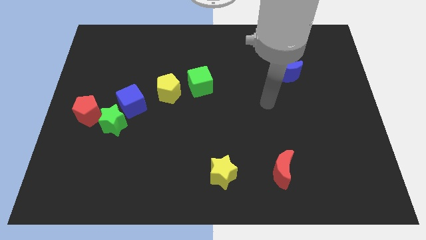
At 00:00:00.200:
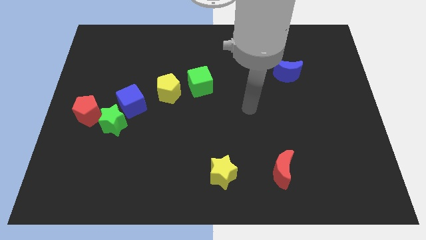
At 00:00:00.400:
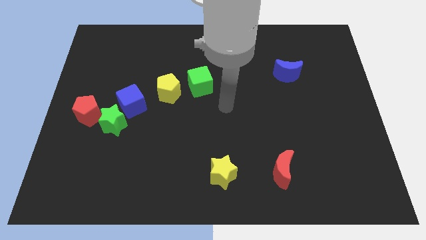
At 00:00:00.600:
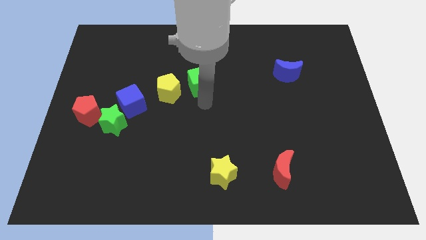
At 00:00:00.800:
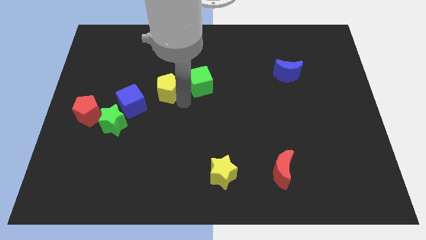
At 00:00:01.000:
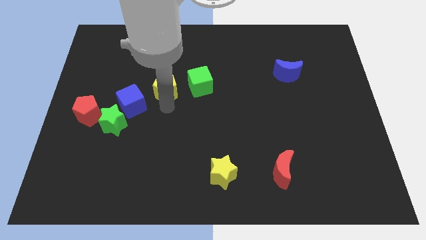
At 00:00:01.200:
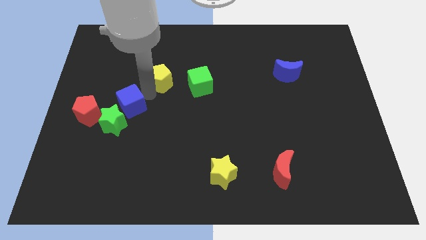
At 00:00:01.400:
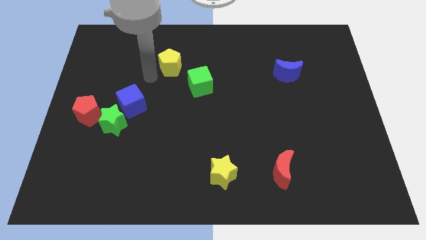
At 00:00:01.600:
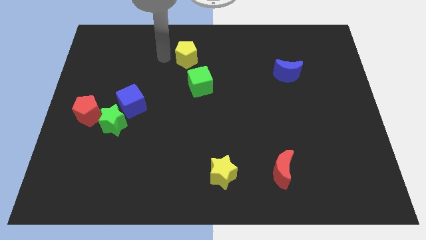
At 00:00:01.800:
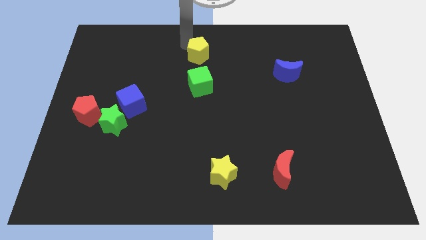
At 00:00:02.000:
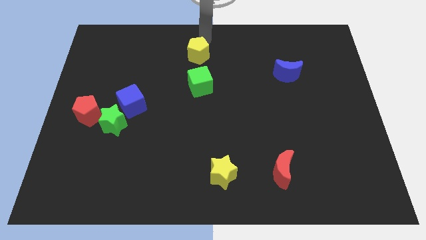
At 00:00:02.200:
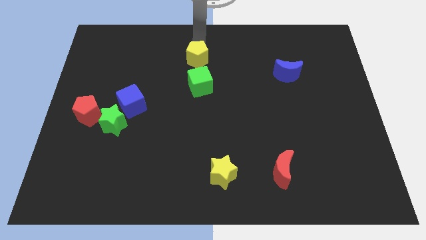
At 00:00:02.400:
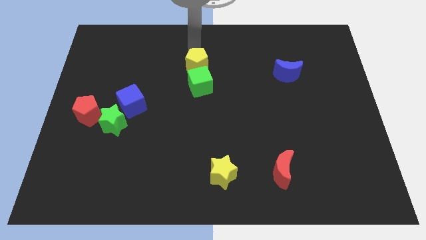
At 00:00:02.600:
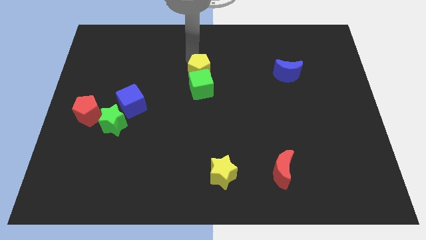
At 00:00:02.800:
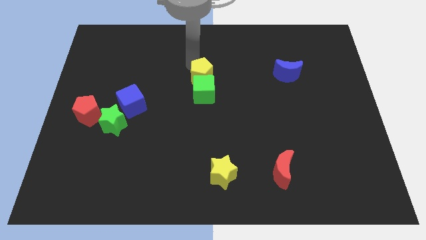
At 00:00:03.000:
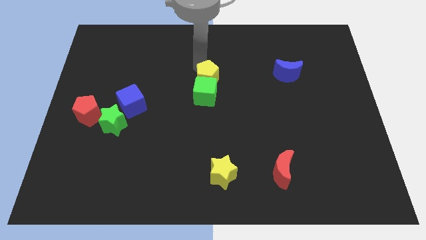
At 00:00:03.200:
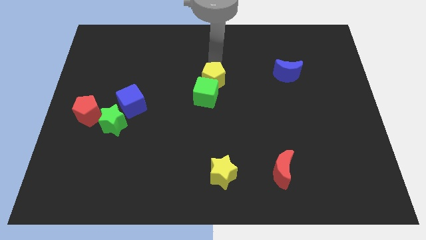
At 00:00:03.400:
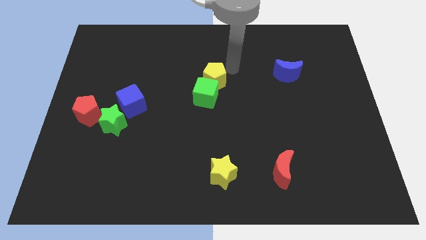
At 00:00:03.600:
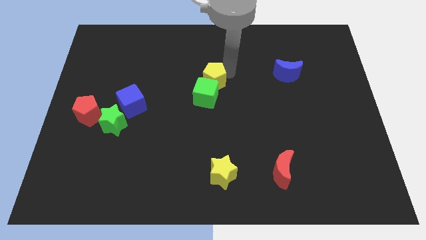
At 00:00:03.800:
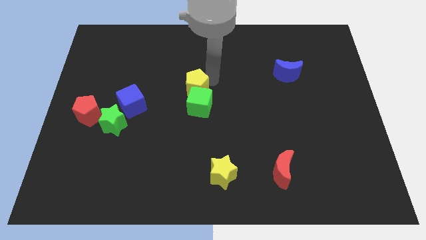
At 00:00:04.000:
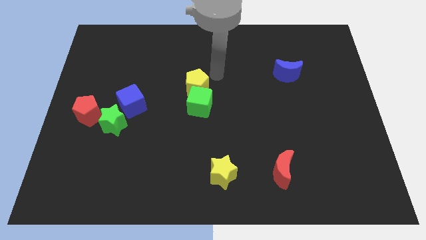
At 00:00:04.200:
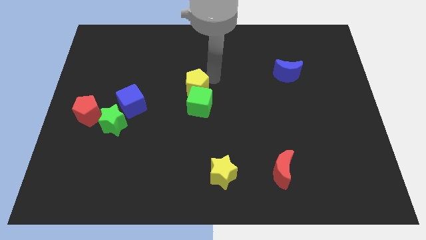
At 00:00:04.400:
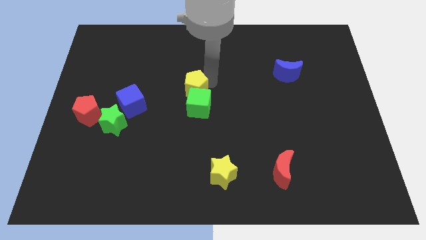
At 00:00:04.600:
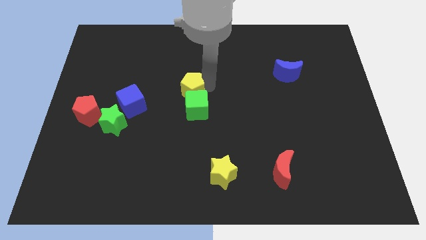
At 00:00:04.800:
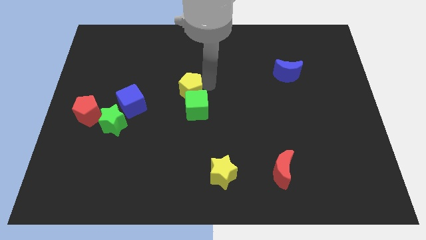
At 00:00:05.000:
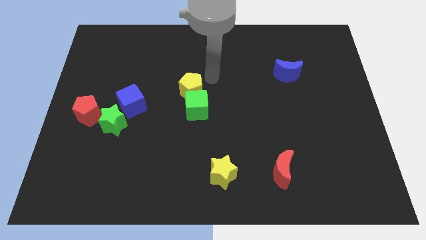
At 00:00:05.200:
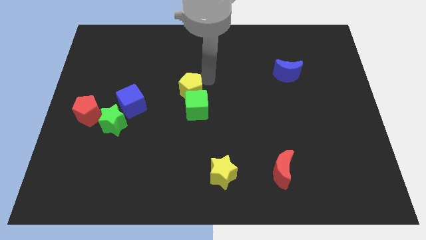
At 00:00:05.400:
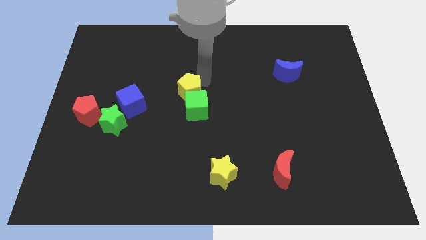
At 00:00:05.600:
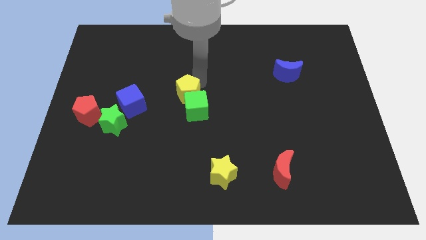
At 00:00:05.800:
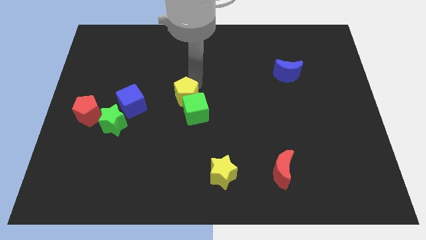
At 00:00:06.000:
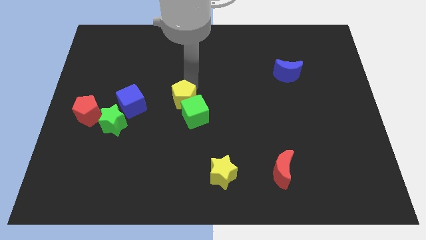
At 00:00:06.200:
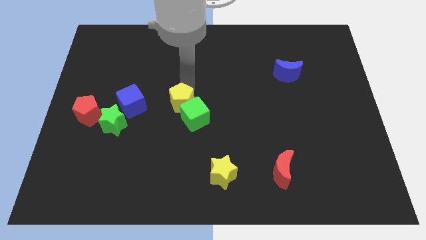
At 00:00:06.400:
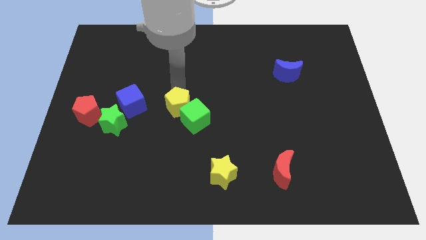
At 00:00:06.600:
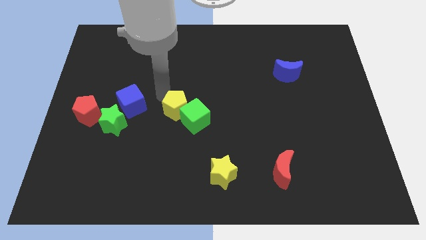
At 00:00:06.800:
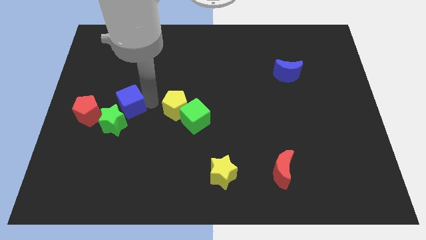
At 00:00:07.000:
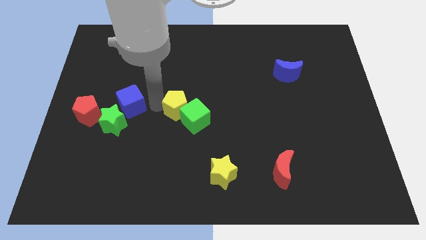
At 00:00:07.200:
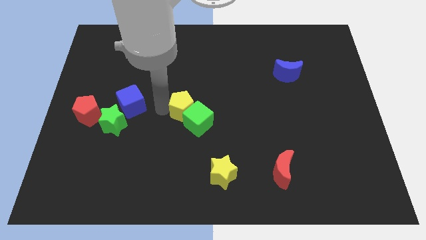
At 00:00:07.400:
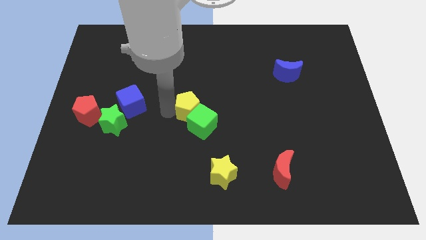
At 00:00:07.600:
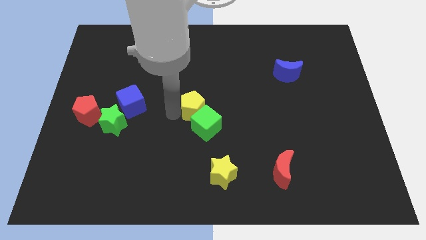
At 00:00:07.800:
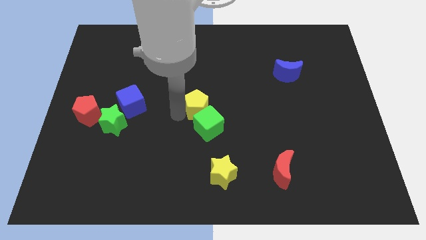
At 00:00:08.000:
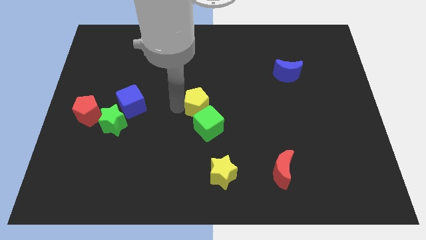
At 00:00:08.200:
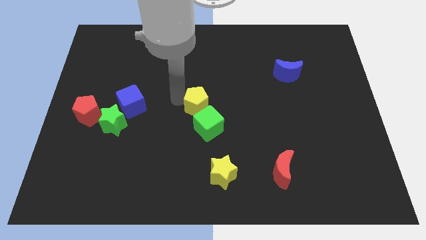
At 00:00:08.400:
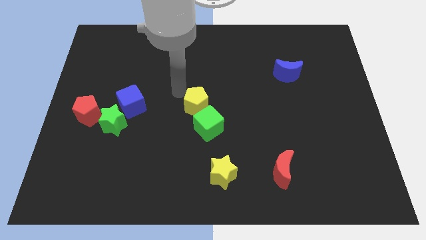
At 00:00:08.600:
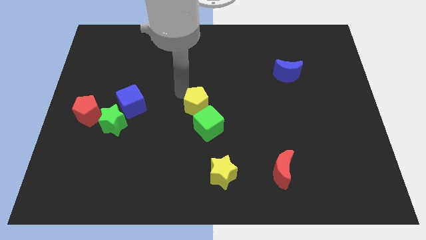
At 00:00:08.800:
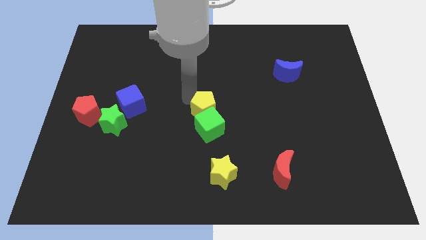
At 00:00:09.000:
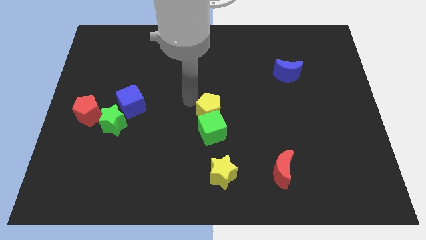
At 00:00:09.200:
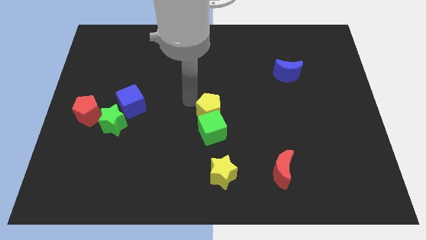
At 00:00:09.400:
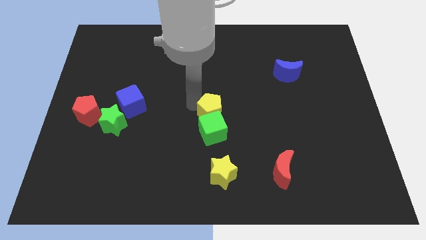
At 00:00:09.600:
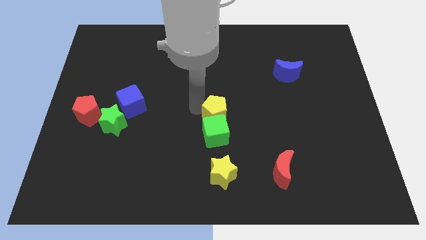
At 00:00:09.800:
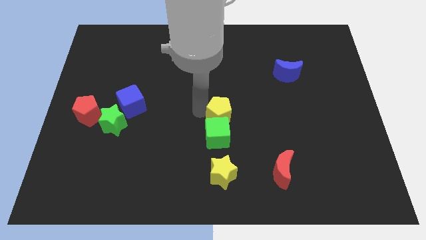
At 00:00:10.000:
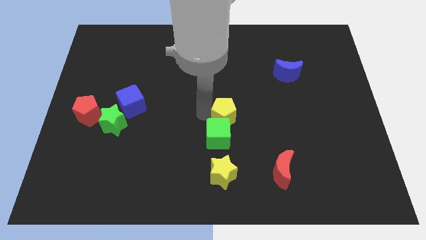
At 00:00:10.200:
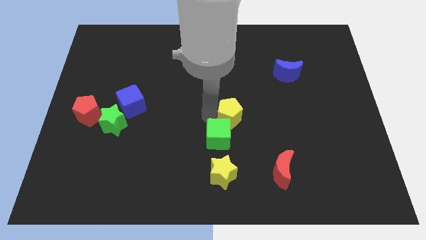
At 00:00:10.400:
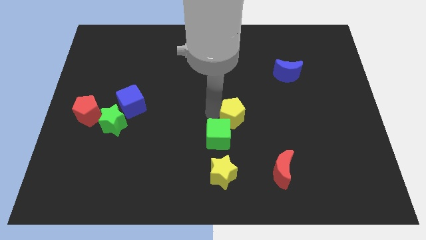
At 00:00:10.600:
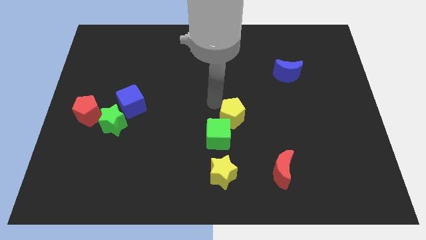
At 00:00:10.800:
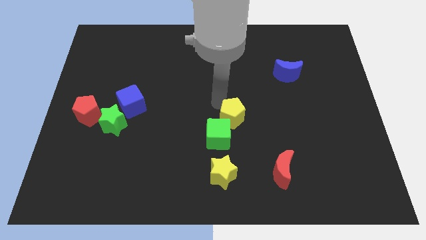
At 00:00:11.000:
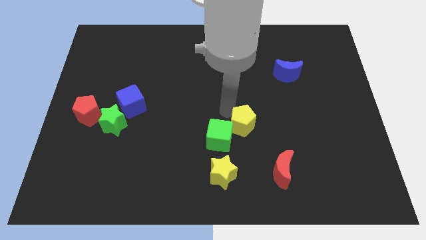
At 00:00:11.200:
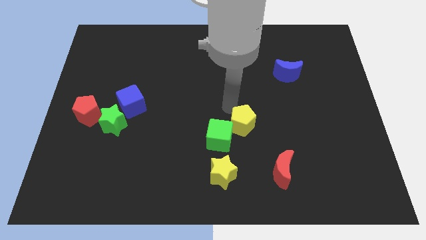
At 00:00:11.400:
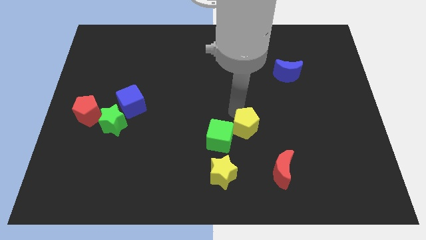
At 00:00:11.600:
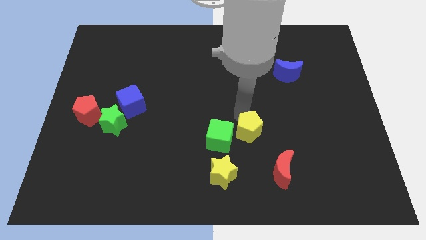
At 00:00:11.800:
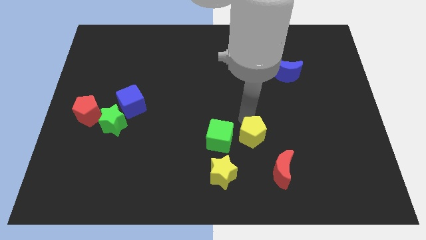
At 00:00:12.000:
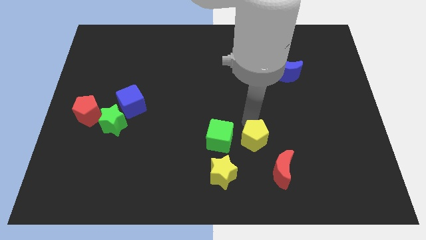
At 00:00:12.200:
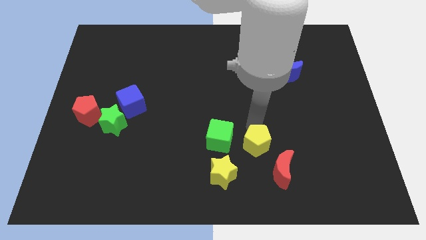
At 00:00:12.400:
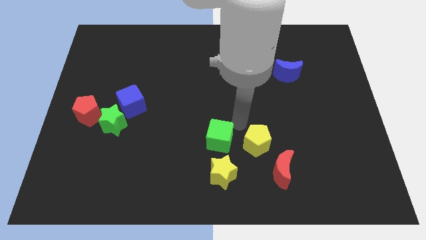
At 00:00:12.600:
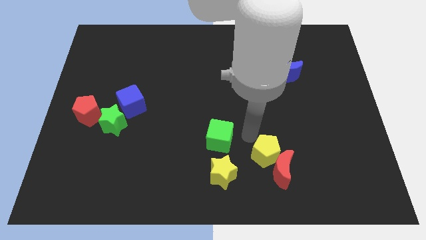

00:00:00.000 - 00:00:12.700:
move the yellow pentagon towards the red moon
